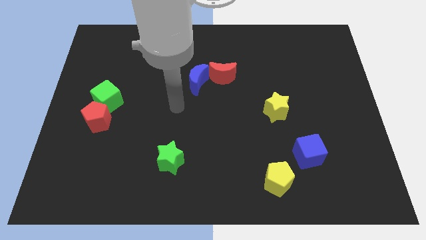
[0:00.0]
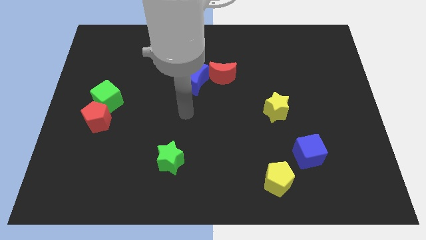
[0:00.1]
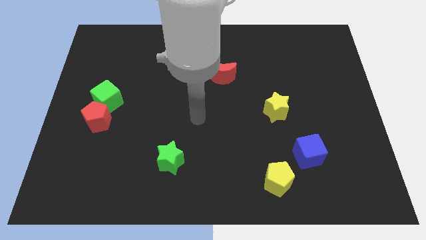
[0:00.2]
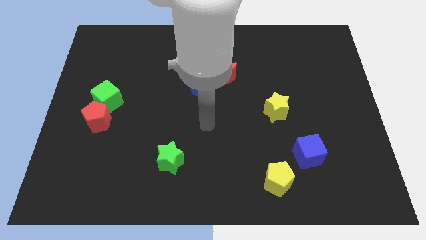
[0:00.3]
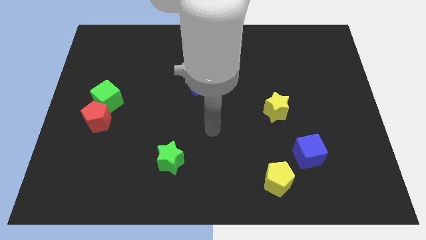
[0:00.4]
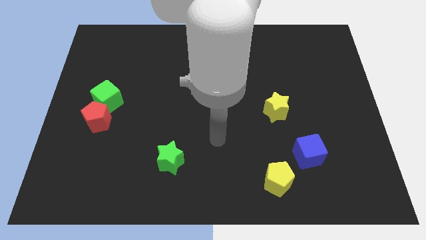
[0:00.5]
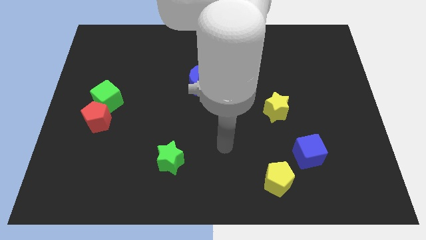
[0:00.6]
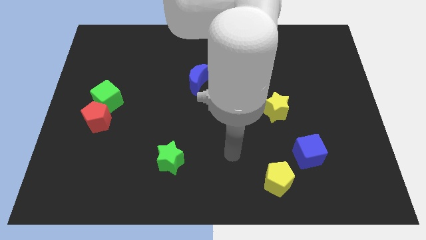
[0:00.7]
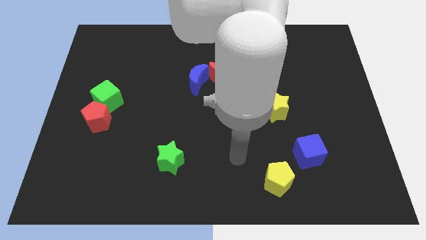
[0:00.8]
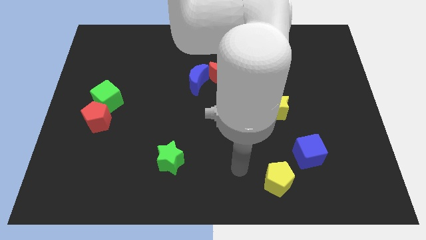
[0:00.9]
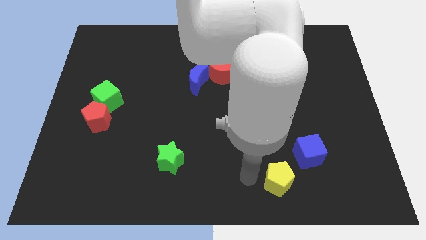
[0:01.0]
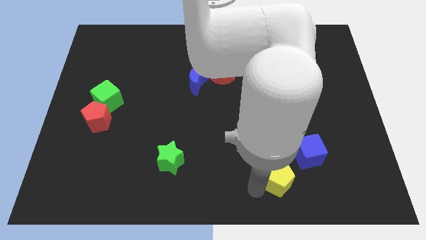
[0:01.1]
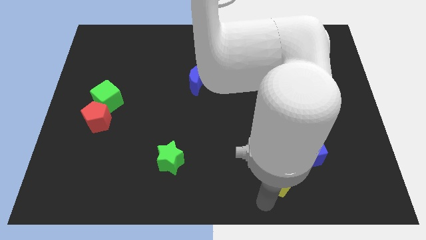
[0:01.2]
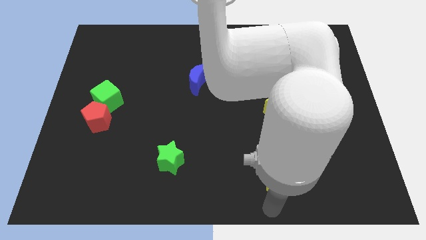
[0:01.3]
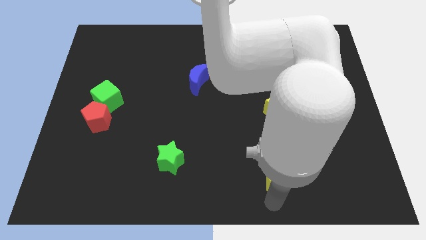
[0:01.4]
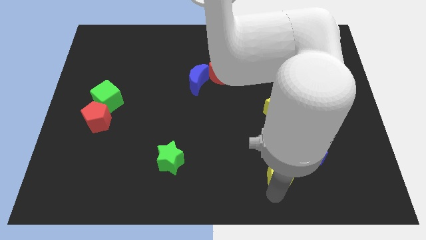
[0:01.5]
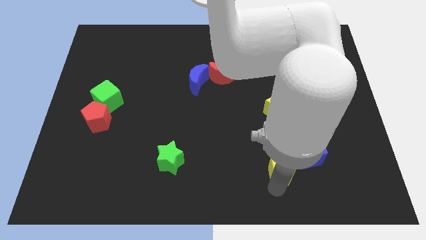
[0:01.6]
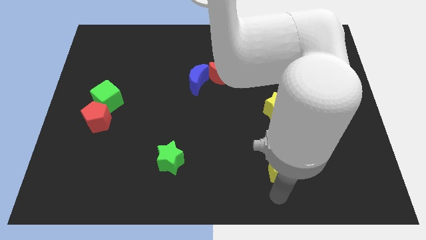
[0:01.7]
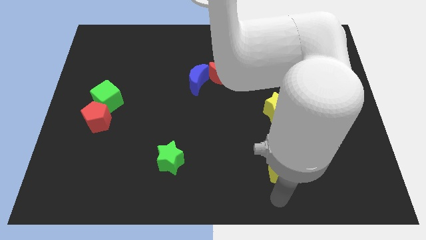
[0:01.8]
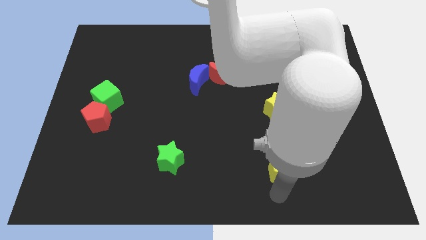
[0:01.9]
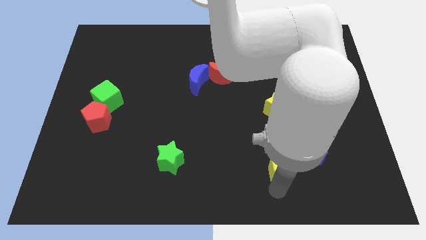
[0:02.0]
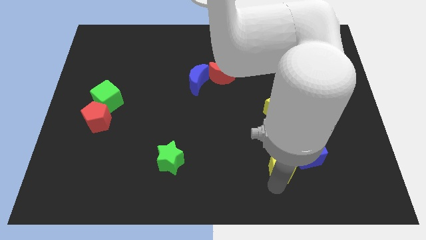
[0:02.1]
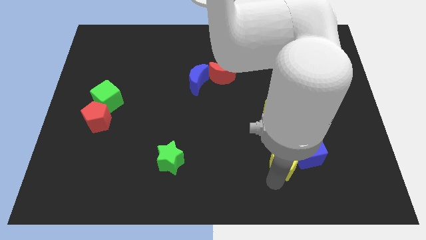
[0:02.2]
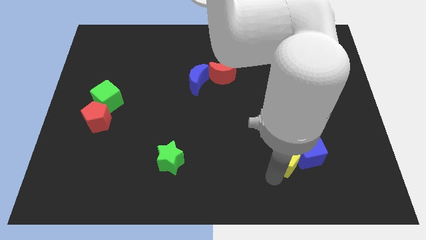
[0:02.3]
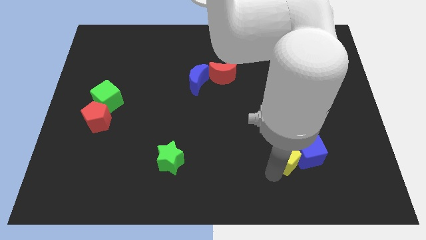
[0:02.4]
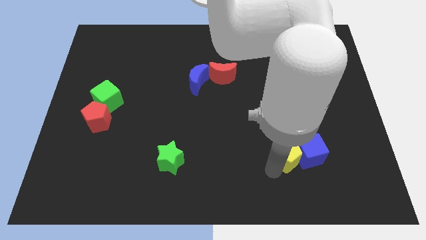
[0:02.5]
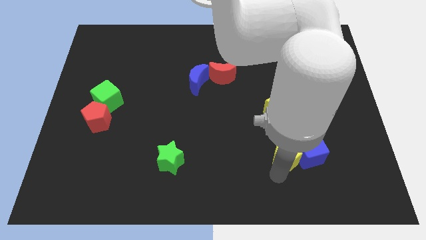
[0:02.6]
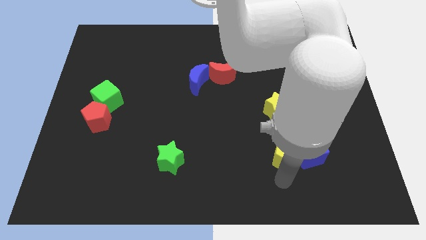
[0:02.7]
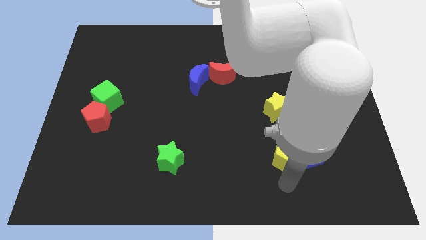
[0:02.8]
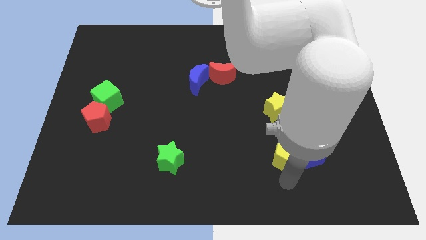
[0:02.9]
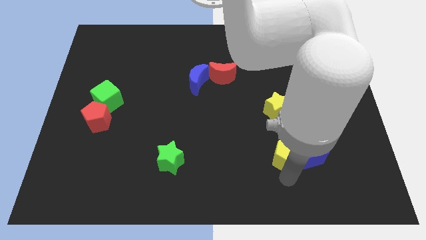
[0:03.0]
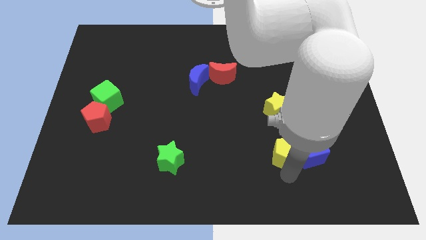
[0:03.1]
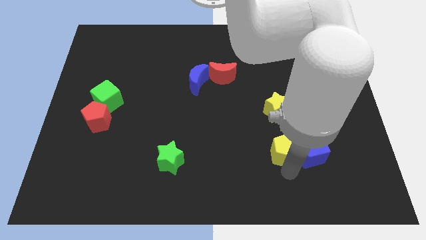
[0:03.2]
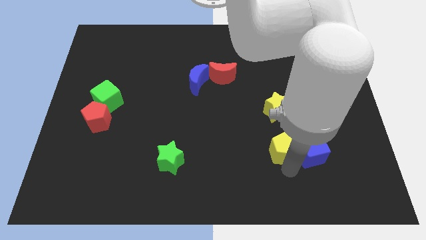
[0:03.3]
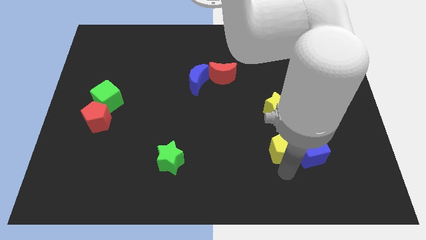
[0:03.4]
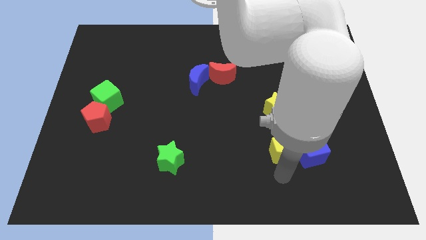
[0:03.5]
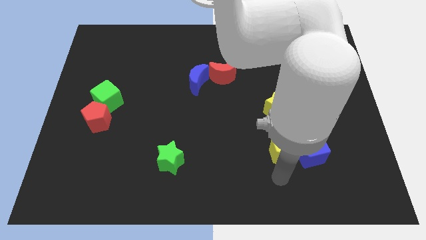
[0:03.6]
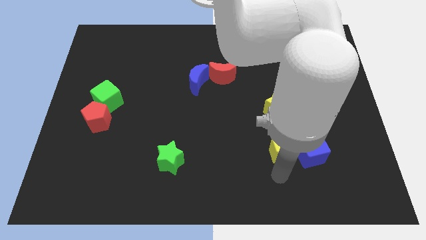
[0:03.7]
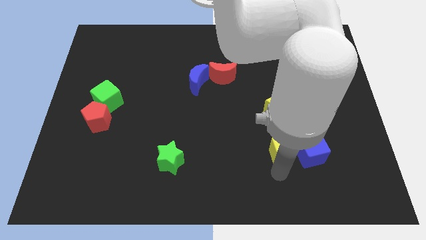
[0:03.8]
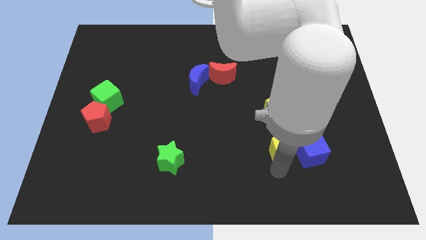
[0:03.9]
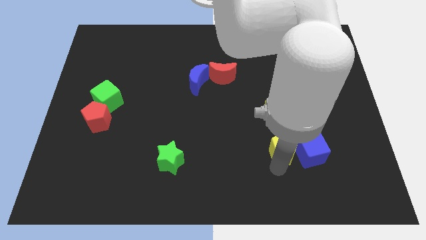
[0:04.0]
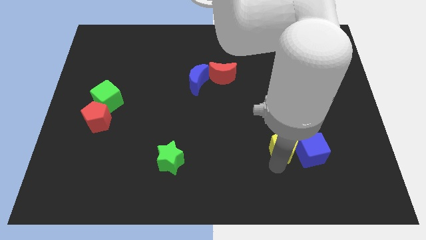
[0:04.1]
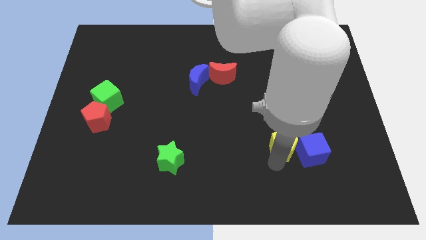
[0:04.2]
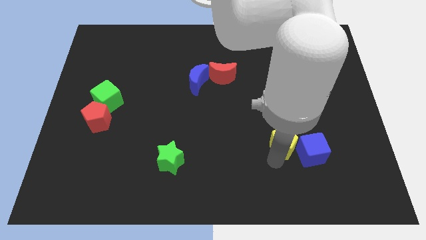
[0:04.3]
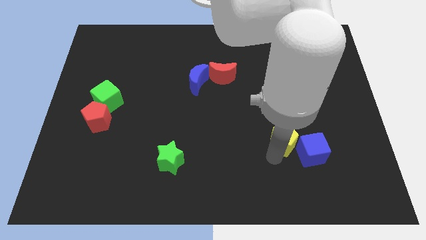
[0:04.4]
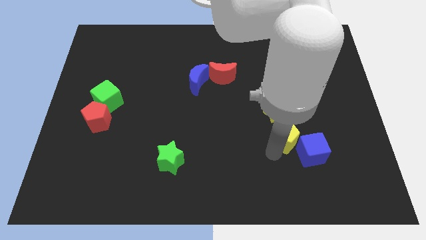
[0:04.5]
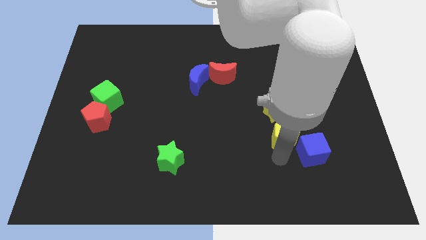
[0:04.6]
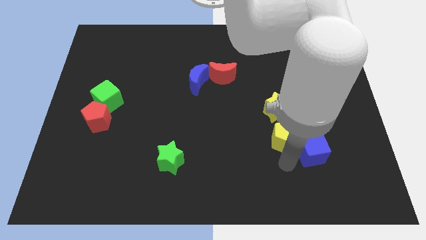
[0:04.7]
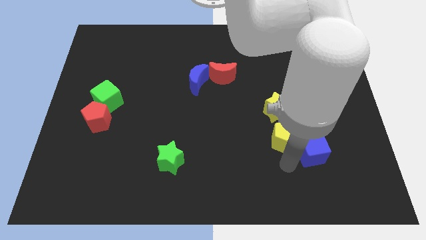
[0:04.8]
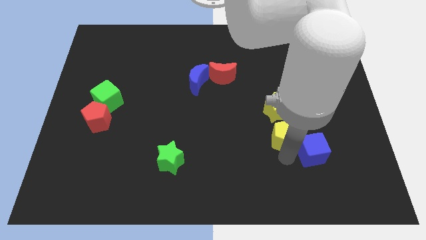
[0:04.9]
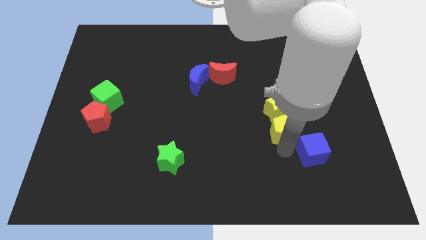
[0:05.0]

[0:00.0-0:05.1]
move the yellow pentagon close to the yellow star
